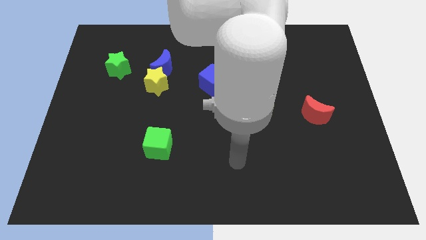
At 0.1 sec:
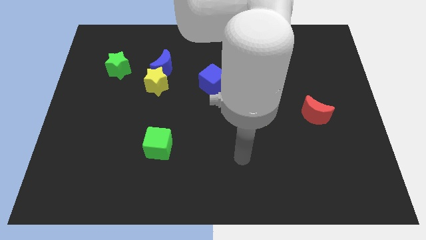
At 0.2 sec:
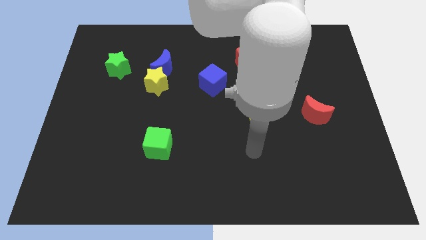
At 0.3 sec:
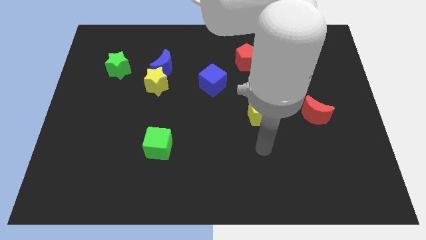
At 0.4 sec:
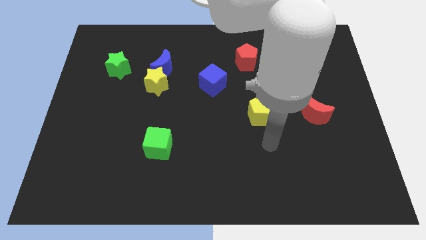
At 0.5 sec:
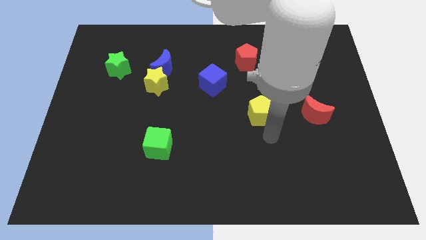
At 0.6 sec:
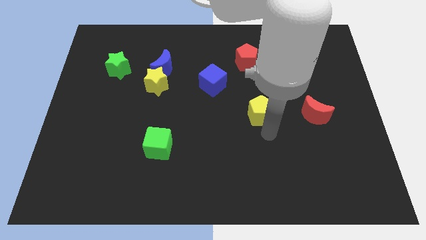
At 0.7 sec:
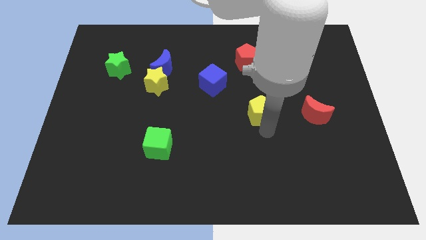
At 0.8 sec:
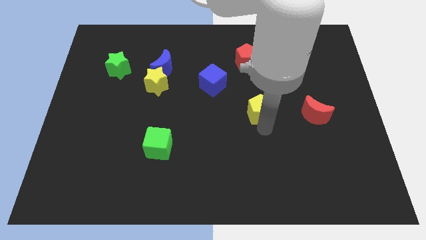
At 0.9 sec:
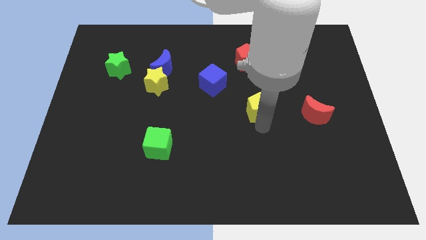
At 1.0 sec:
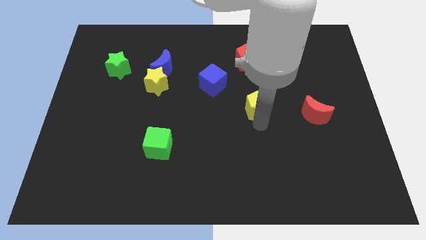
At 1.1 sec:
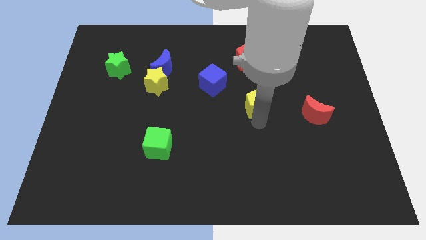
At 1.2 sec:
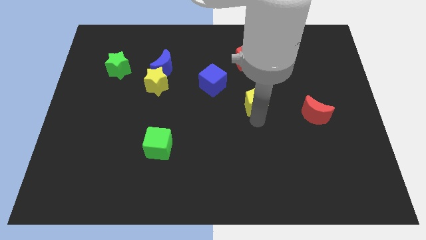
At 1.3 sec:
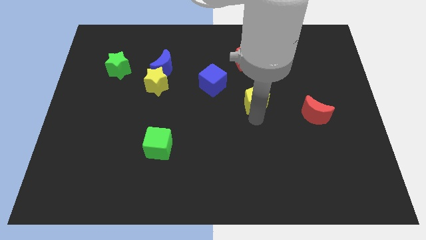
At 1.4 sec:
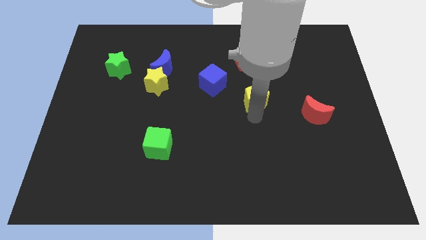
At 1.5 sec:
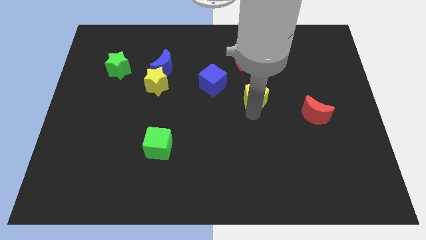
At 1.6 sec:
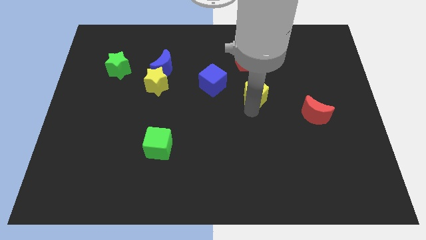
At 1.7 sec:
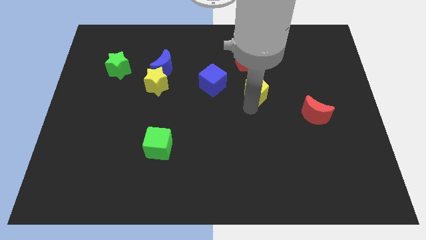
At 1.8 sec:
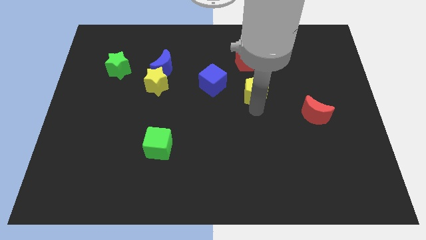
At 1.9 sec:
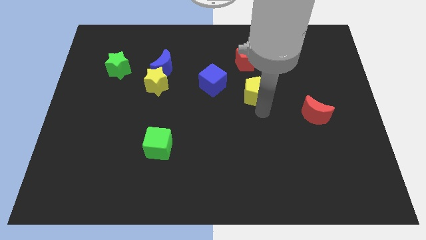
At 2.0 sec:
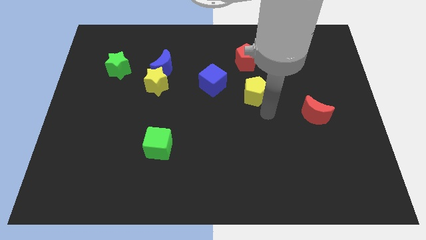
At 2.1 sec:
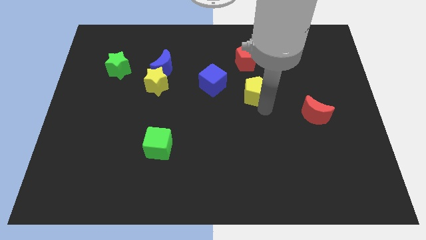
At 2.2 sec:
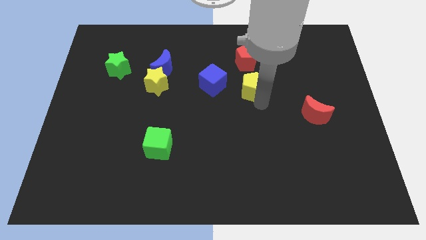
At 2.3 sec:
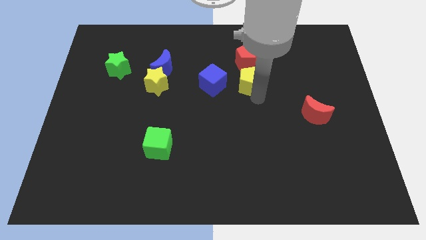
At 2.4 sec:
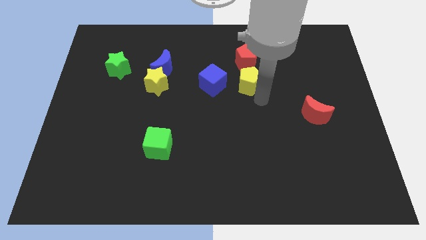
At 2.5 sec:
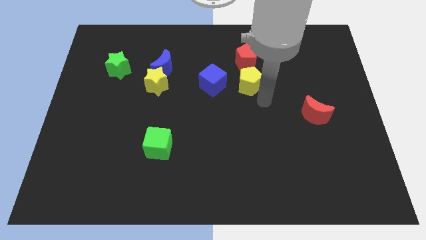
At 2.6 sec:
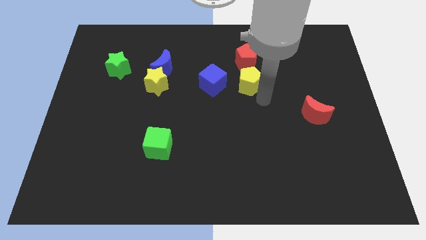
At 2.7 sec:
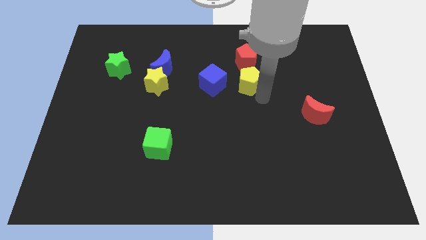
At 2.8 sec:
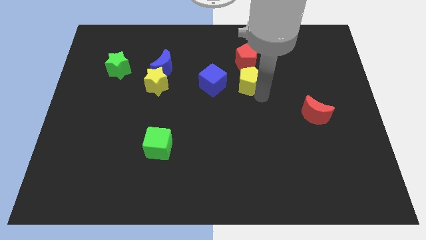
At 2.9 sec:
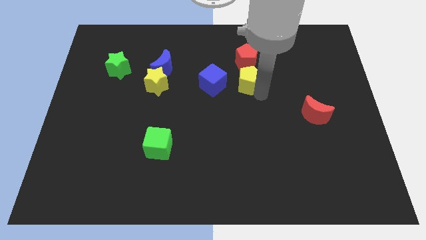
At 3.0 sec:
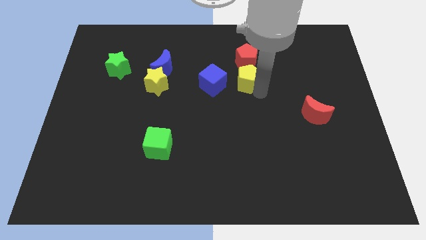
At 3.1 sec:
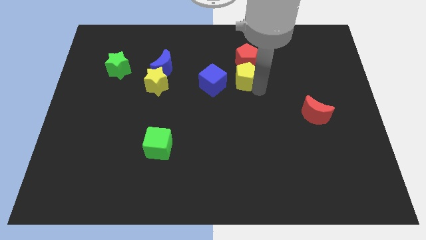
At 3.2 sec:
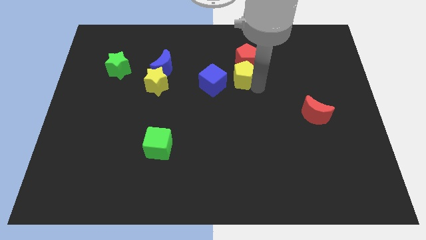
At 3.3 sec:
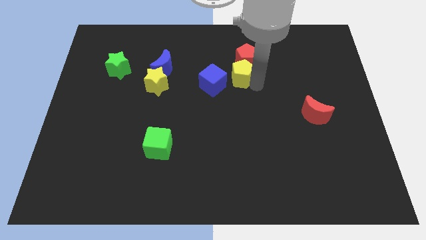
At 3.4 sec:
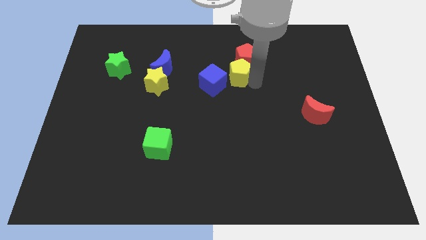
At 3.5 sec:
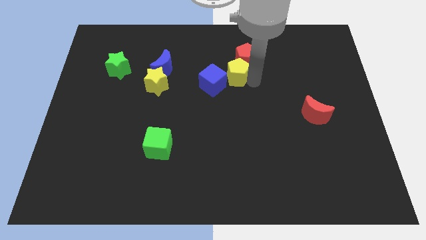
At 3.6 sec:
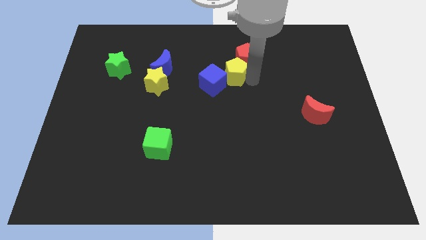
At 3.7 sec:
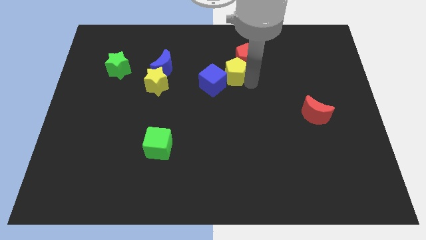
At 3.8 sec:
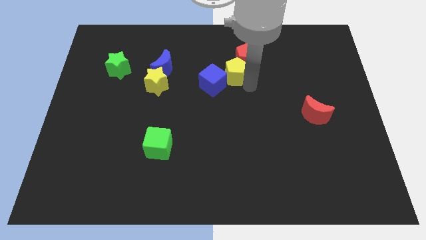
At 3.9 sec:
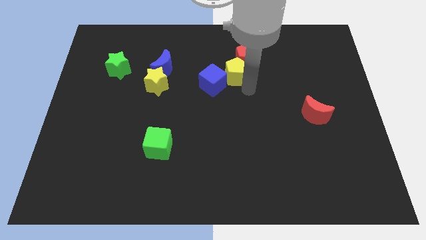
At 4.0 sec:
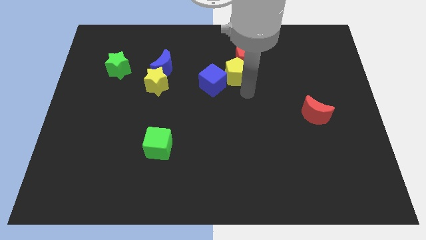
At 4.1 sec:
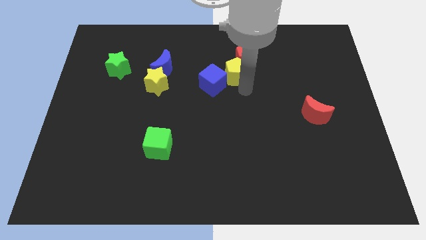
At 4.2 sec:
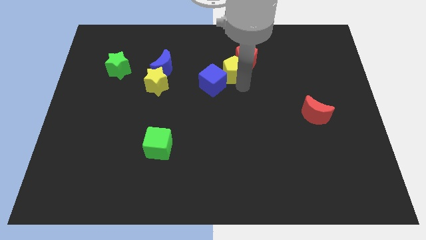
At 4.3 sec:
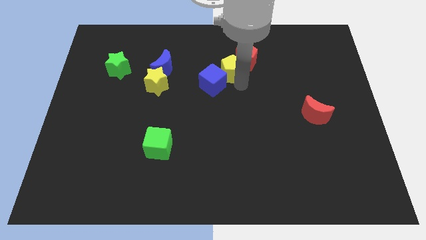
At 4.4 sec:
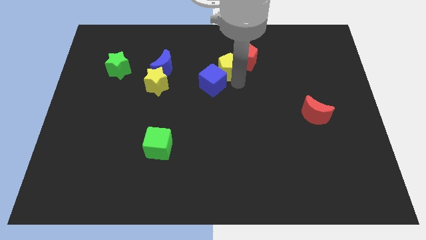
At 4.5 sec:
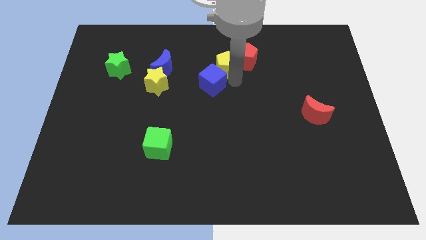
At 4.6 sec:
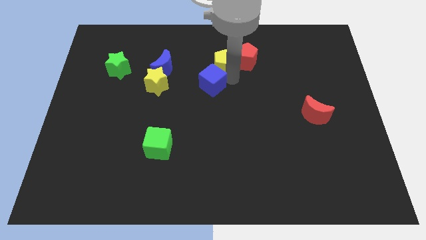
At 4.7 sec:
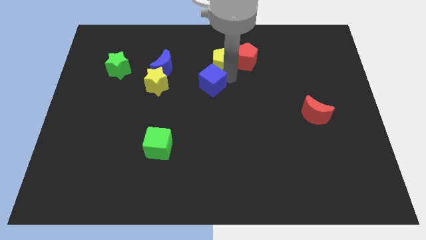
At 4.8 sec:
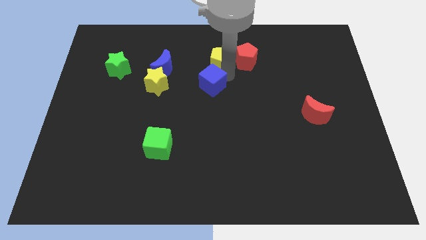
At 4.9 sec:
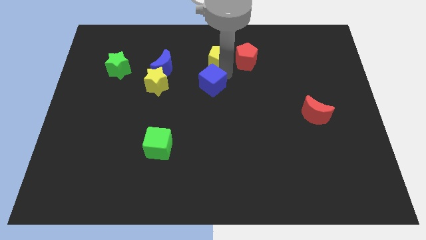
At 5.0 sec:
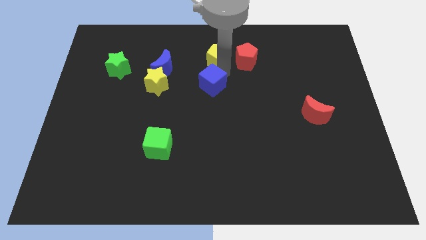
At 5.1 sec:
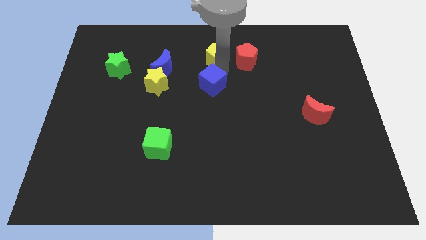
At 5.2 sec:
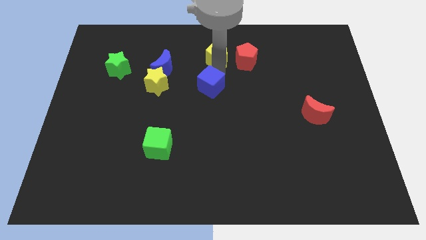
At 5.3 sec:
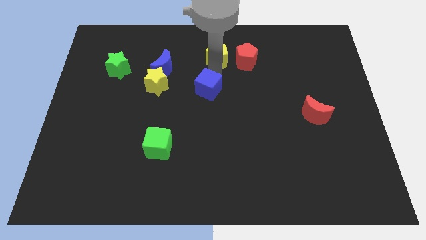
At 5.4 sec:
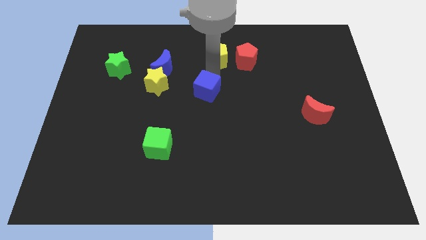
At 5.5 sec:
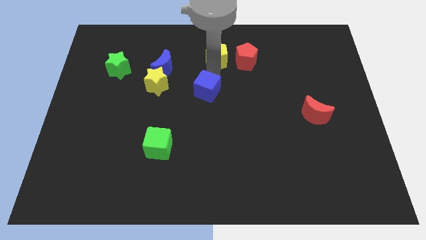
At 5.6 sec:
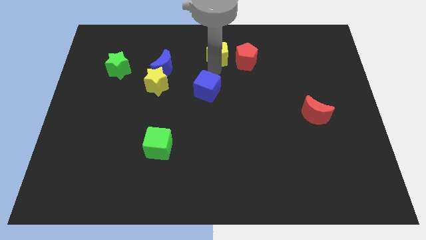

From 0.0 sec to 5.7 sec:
move the yellow pentagon to the towards your base
